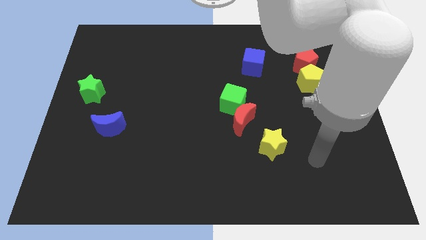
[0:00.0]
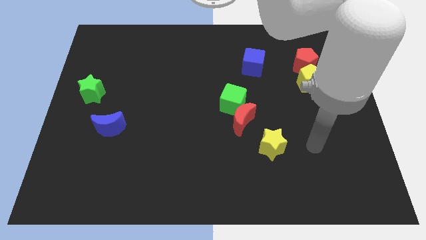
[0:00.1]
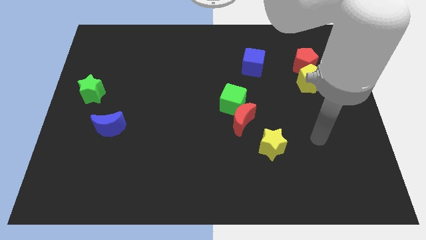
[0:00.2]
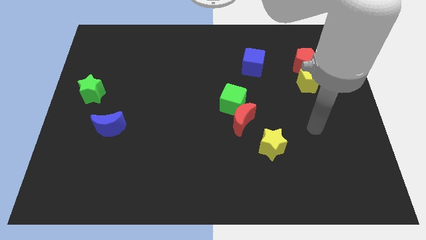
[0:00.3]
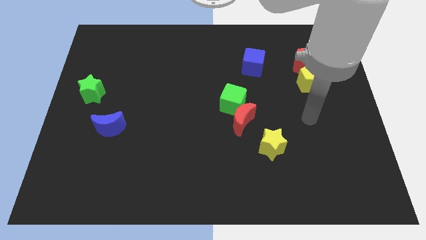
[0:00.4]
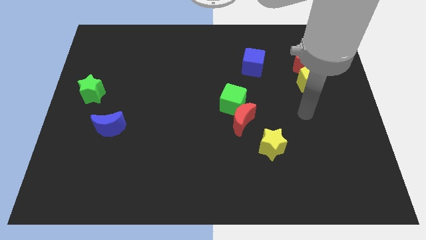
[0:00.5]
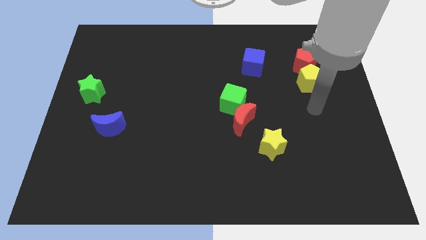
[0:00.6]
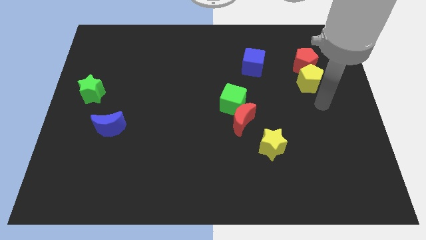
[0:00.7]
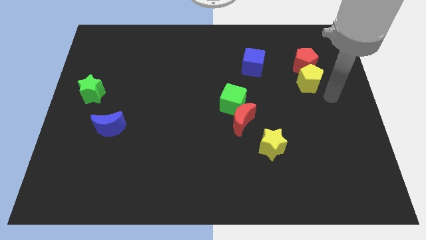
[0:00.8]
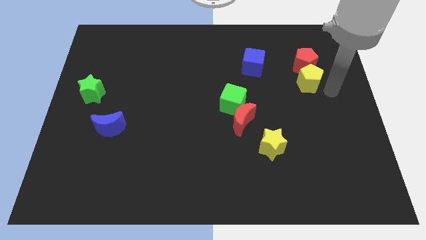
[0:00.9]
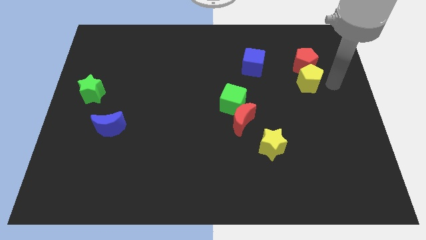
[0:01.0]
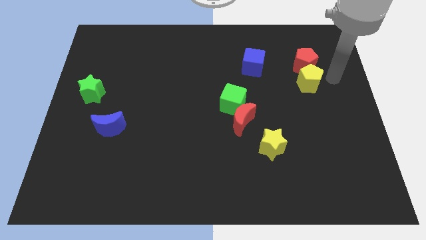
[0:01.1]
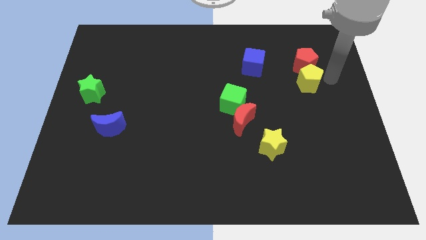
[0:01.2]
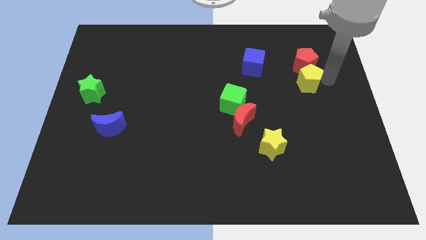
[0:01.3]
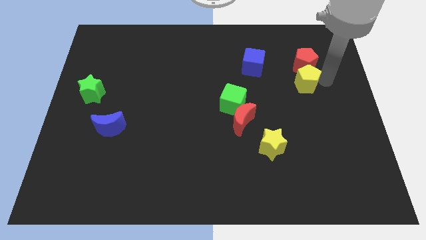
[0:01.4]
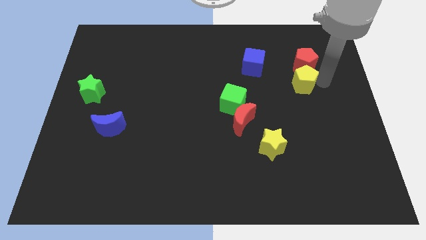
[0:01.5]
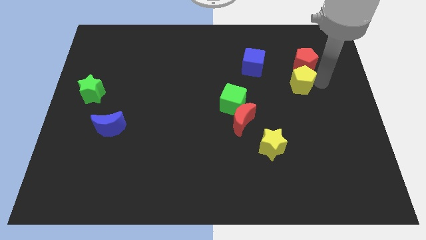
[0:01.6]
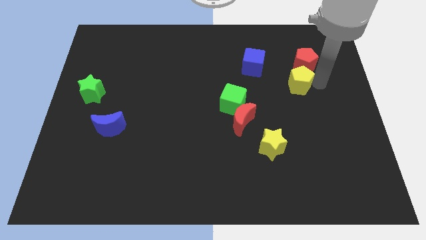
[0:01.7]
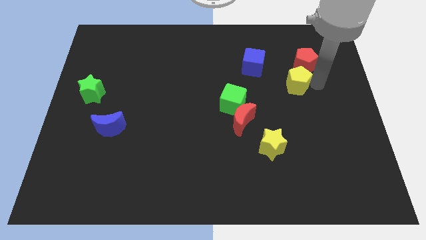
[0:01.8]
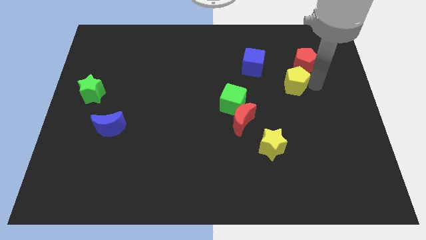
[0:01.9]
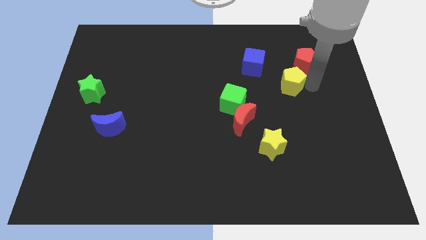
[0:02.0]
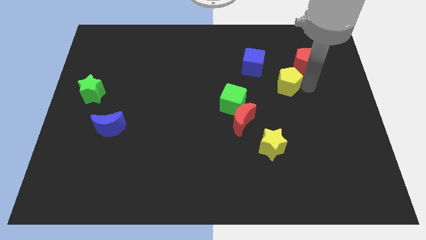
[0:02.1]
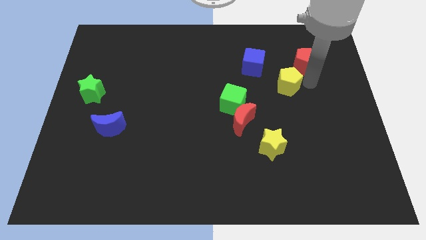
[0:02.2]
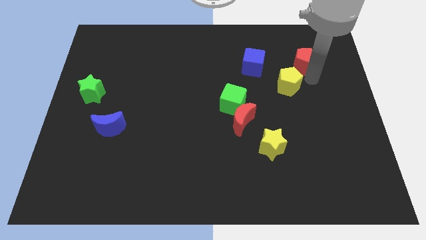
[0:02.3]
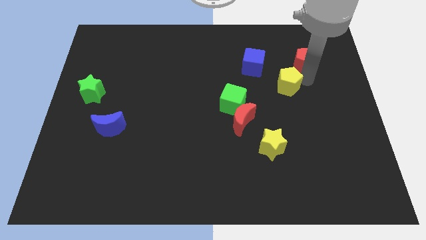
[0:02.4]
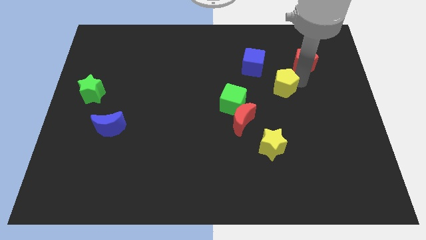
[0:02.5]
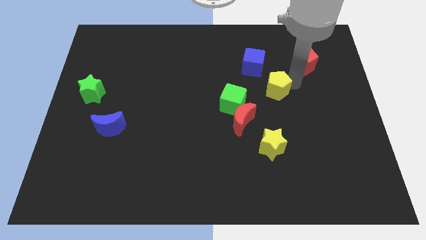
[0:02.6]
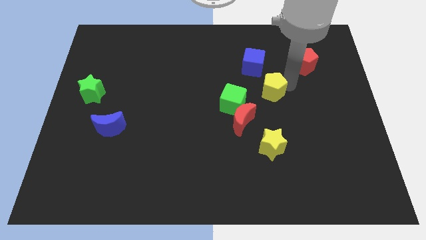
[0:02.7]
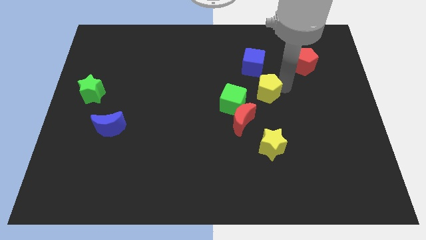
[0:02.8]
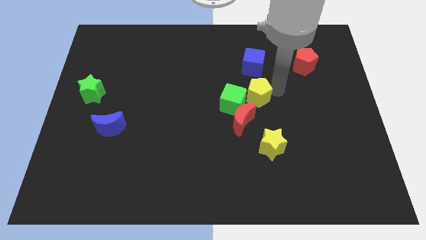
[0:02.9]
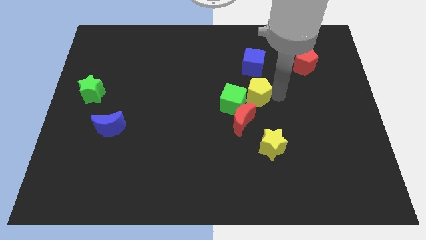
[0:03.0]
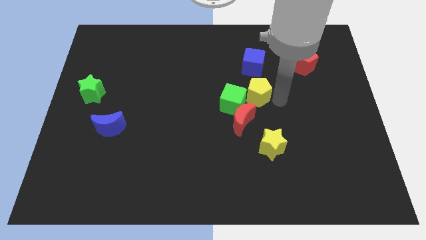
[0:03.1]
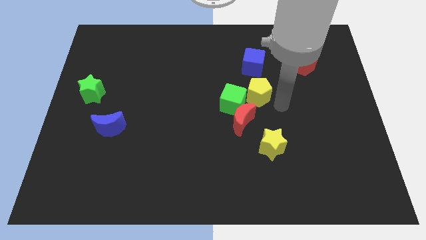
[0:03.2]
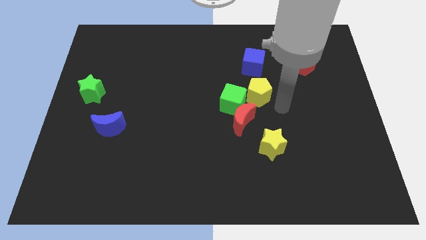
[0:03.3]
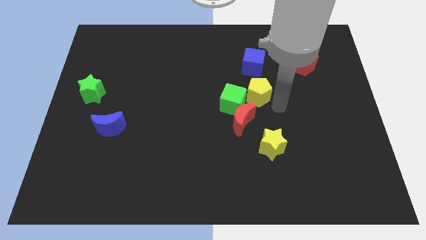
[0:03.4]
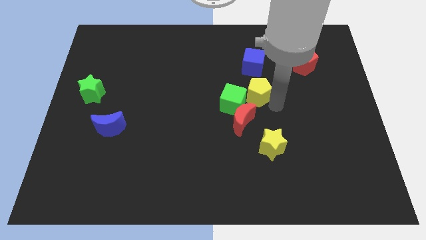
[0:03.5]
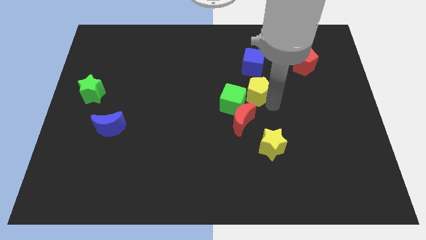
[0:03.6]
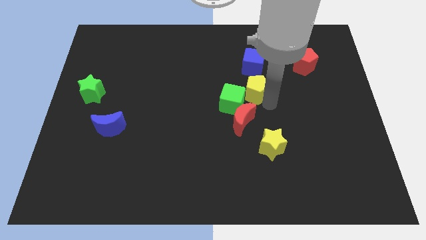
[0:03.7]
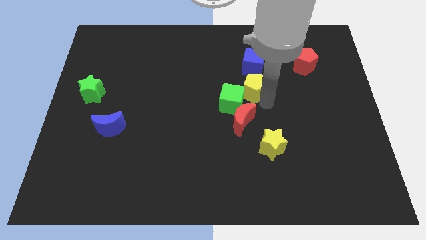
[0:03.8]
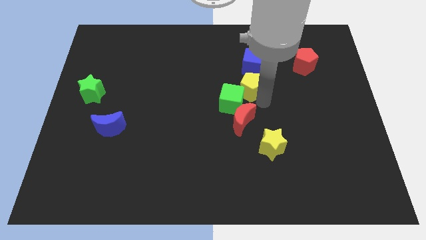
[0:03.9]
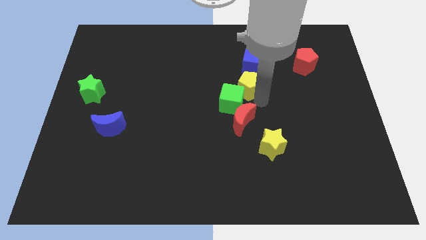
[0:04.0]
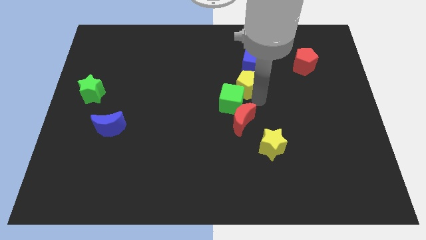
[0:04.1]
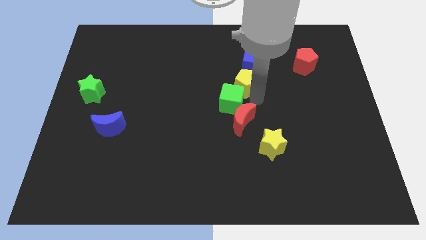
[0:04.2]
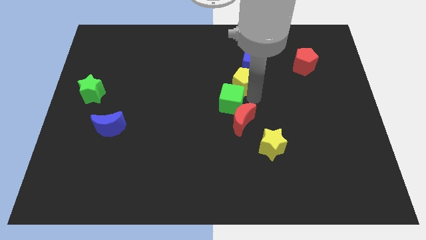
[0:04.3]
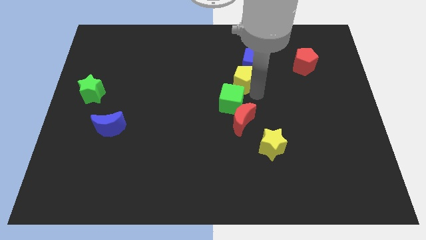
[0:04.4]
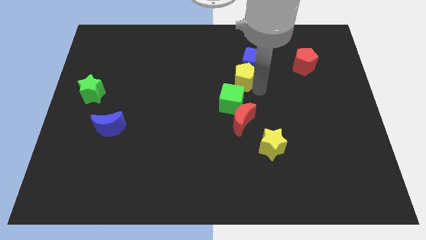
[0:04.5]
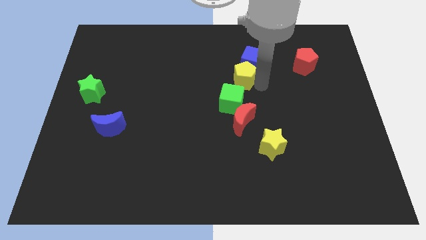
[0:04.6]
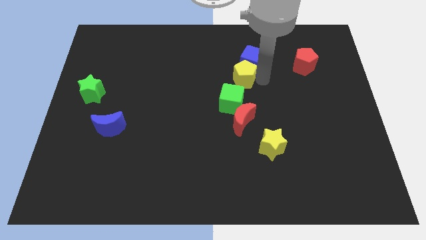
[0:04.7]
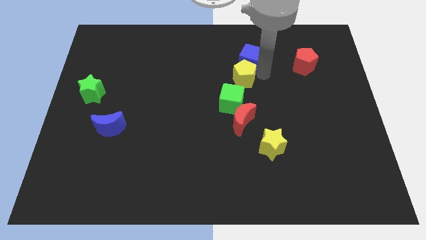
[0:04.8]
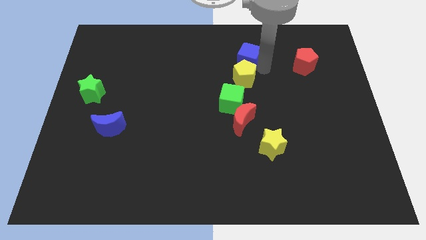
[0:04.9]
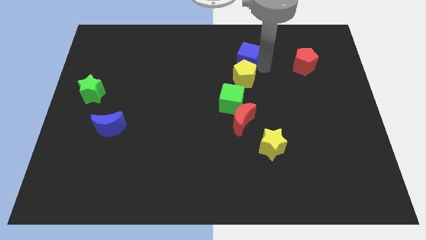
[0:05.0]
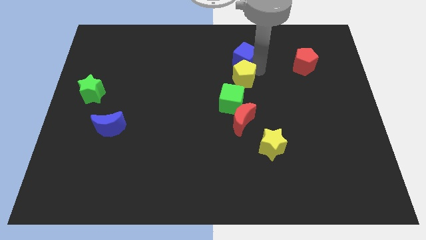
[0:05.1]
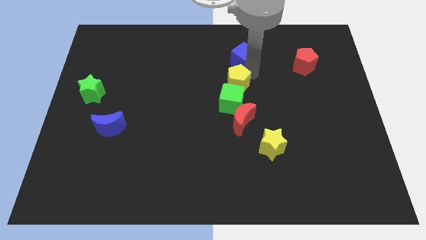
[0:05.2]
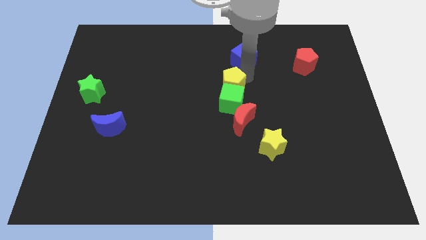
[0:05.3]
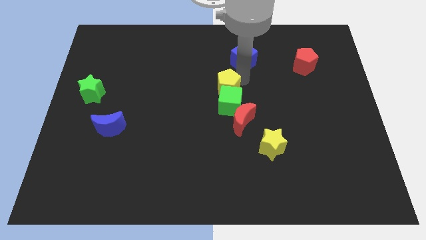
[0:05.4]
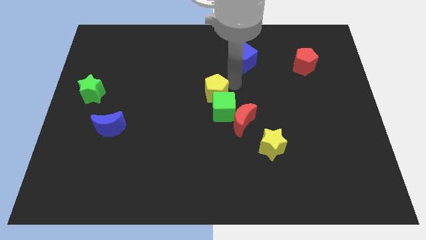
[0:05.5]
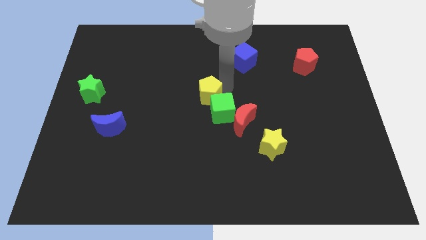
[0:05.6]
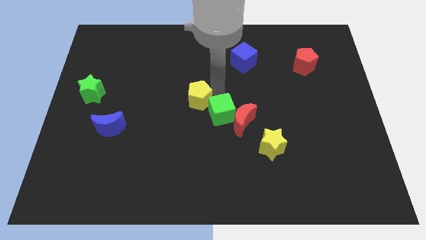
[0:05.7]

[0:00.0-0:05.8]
slide the yellow pentagon just left of the green cube

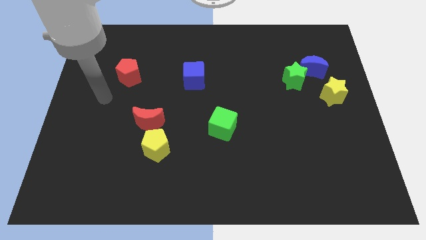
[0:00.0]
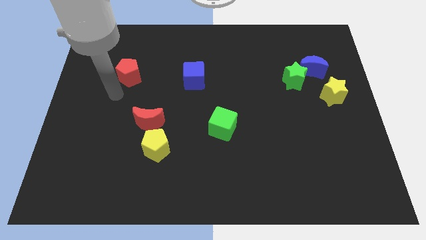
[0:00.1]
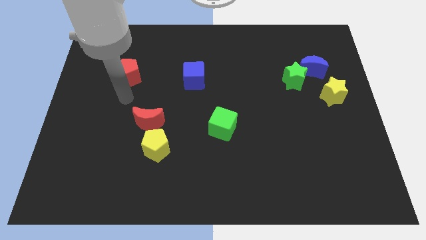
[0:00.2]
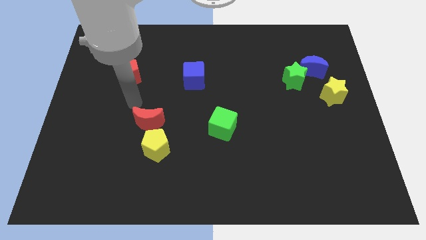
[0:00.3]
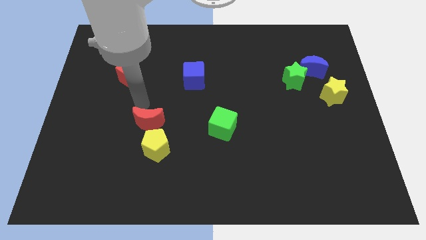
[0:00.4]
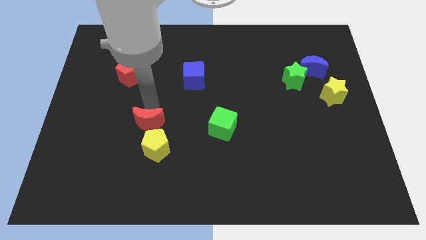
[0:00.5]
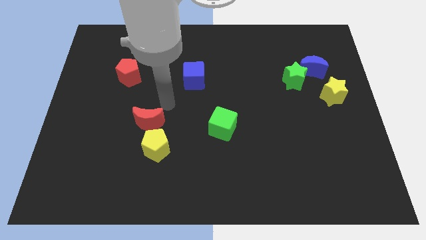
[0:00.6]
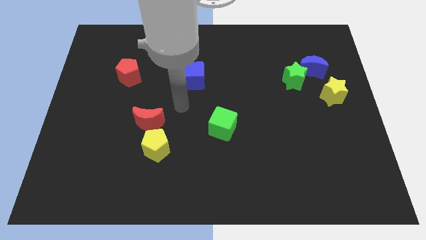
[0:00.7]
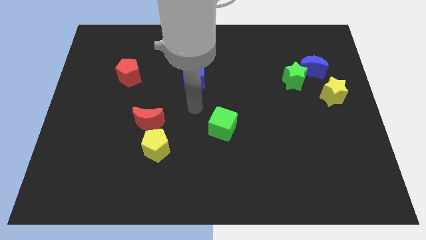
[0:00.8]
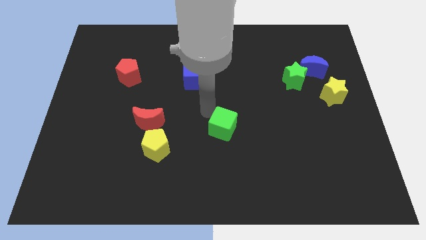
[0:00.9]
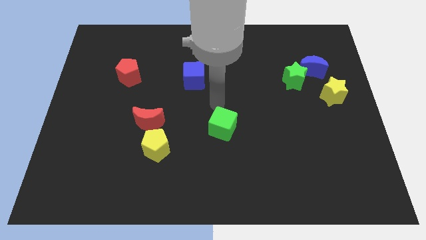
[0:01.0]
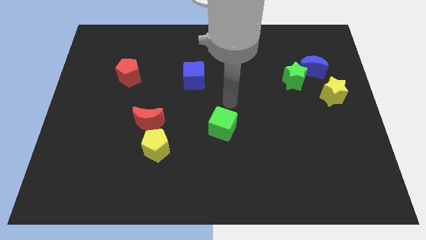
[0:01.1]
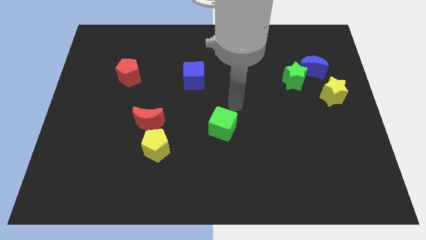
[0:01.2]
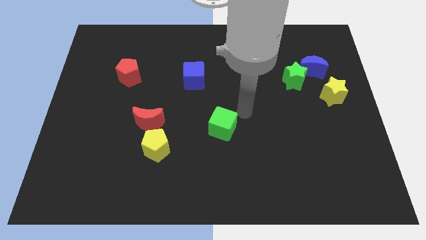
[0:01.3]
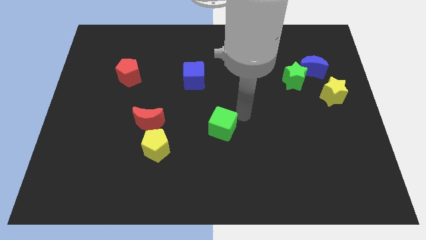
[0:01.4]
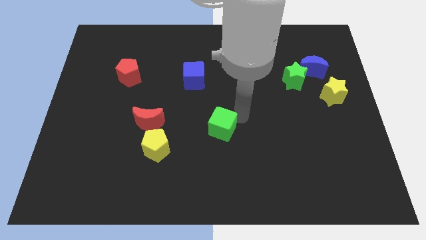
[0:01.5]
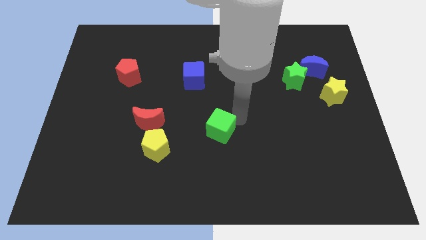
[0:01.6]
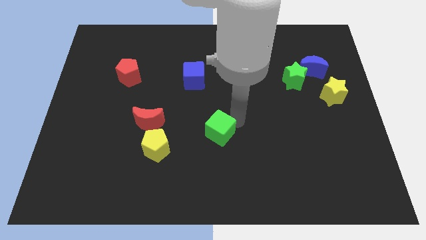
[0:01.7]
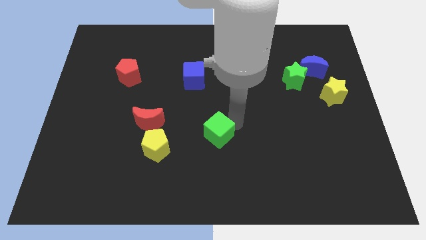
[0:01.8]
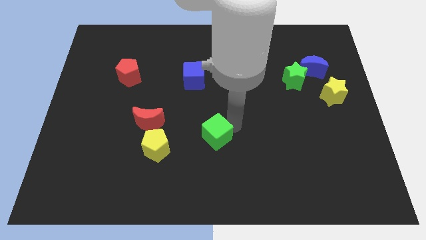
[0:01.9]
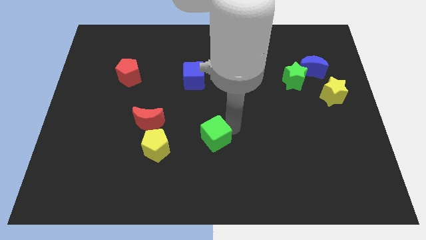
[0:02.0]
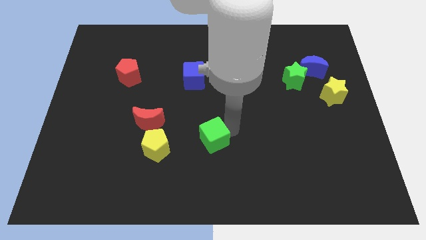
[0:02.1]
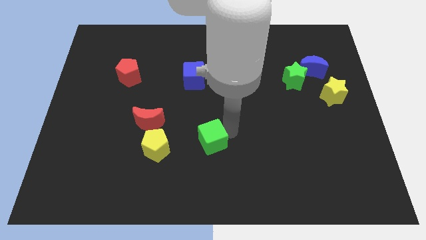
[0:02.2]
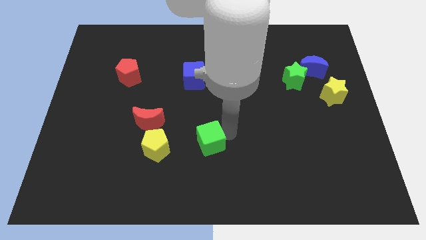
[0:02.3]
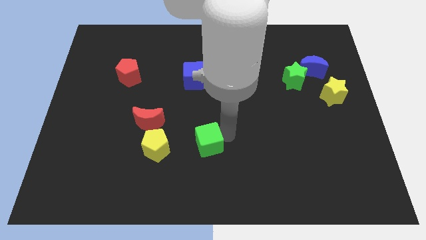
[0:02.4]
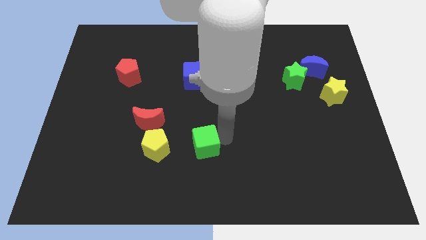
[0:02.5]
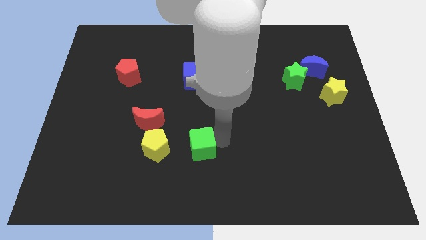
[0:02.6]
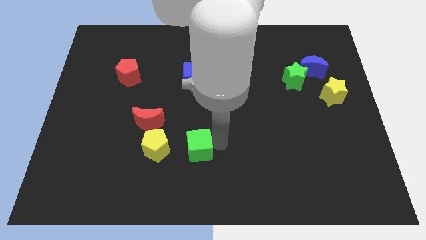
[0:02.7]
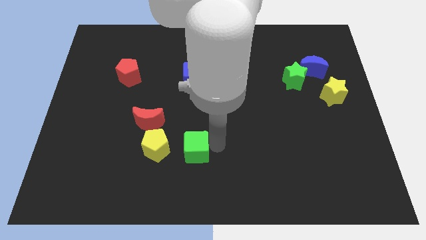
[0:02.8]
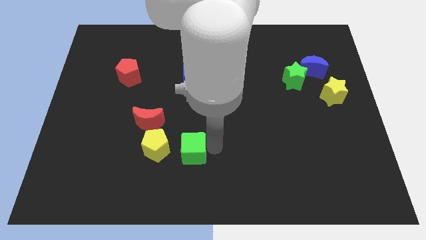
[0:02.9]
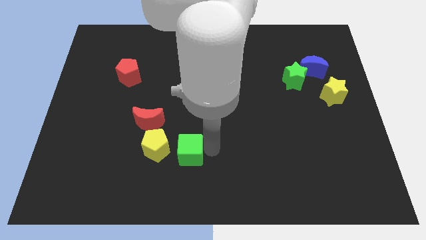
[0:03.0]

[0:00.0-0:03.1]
push the green cube diagonally down and to the right of the red moon
